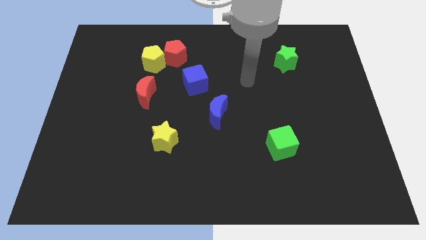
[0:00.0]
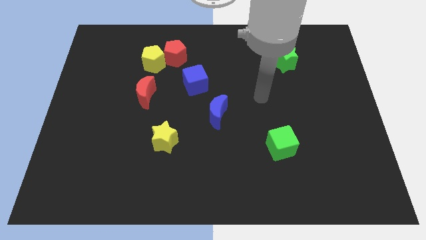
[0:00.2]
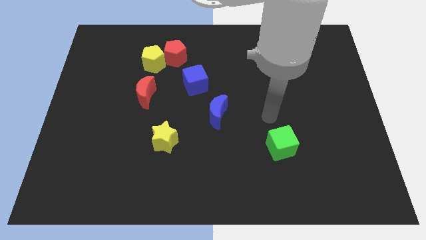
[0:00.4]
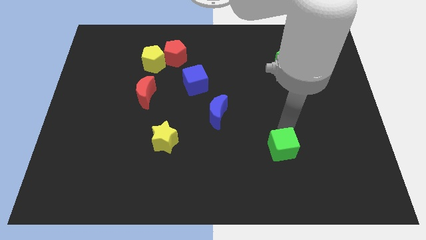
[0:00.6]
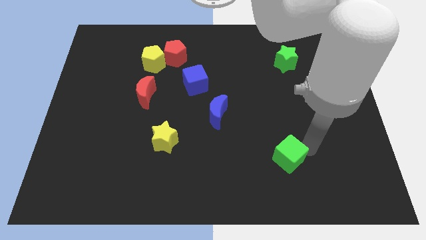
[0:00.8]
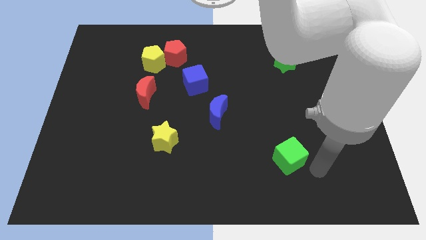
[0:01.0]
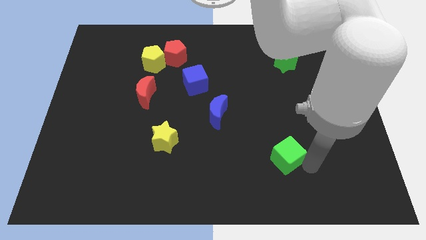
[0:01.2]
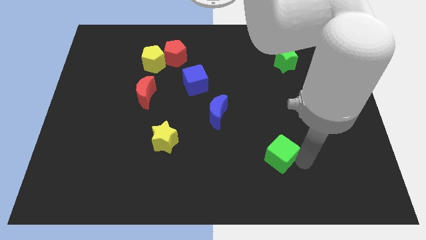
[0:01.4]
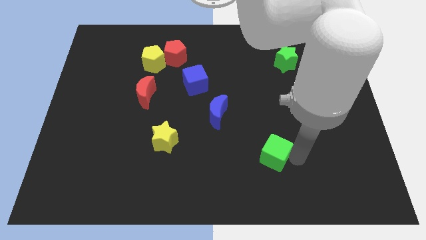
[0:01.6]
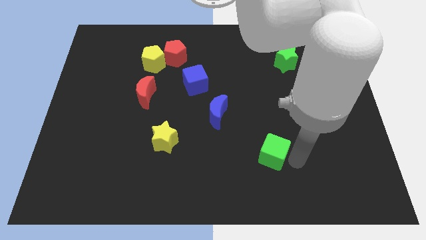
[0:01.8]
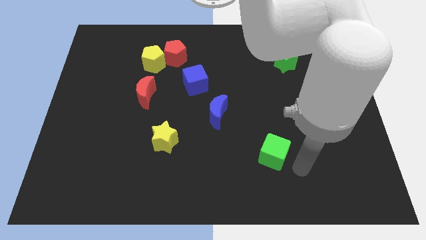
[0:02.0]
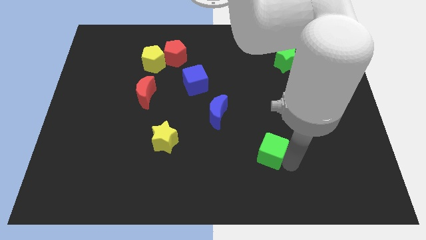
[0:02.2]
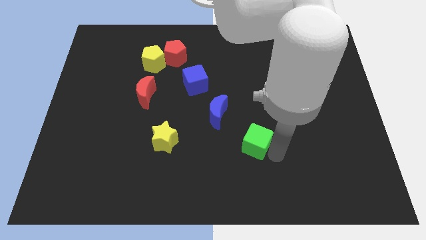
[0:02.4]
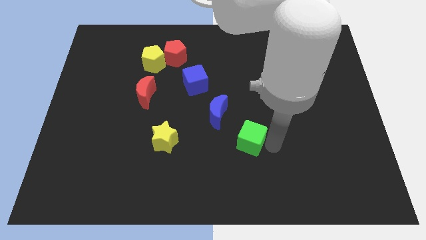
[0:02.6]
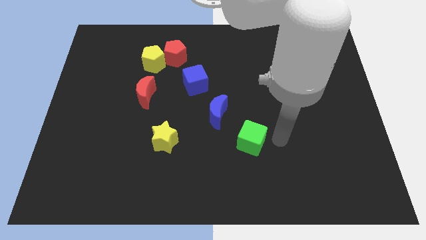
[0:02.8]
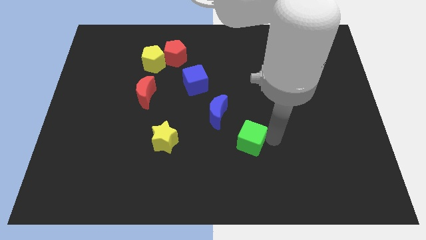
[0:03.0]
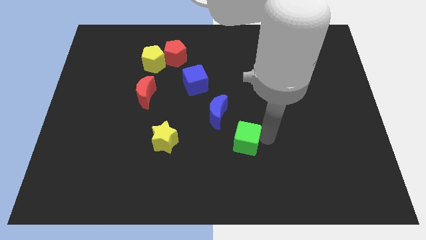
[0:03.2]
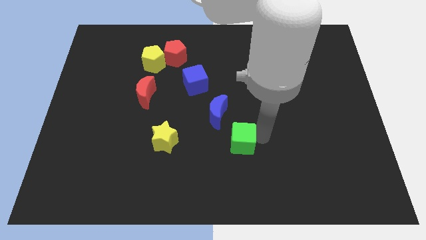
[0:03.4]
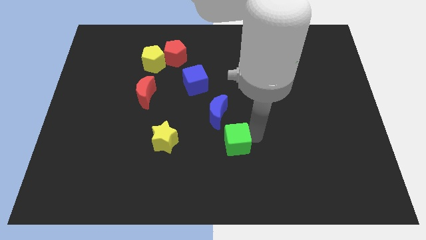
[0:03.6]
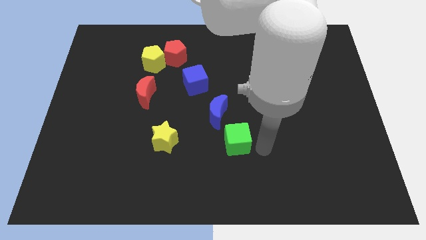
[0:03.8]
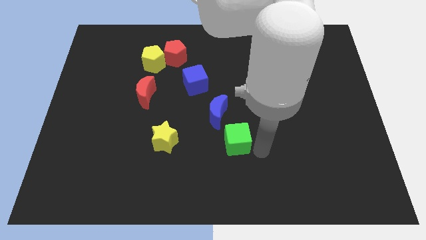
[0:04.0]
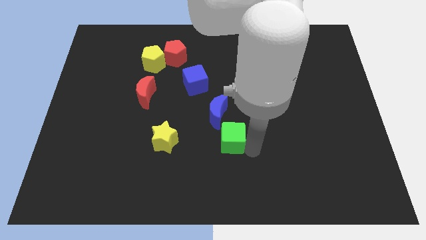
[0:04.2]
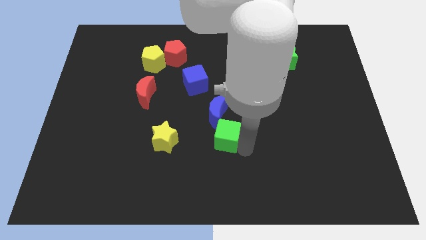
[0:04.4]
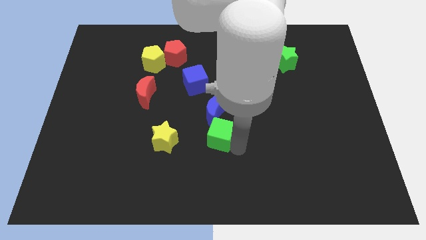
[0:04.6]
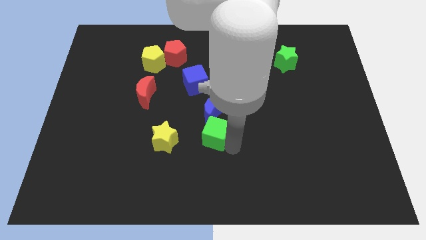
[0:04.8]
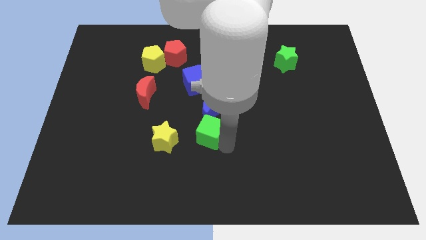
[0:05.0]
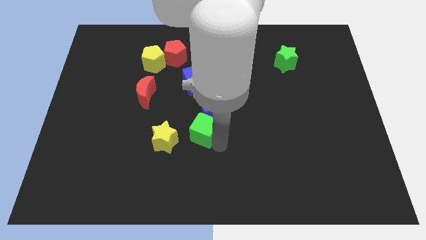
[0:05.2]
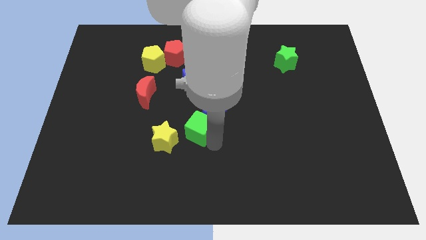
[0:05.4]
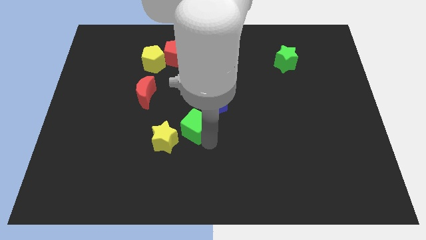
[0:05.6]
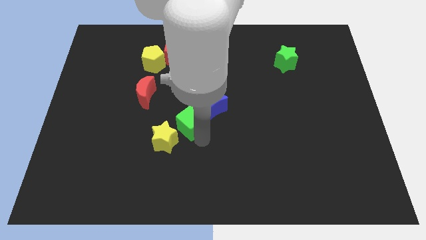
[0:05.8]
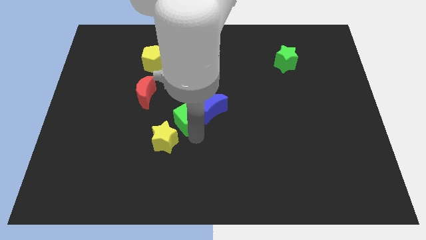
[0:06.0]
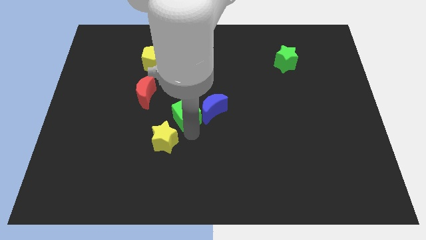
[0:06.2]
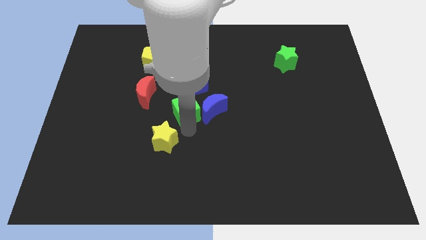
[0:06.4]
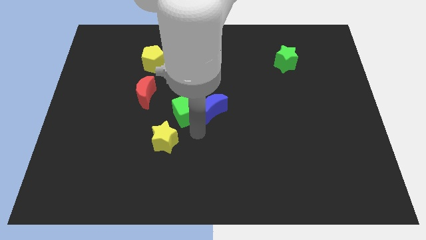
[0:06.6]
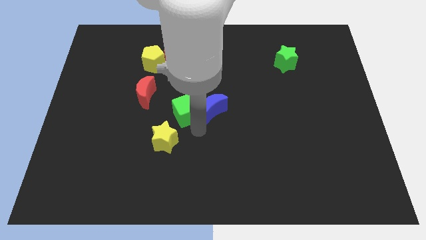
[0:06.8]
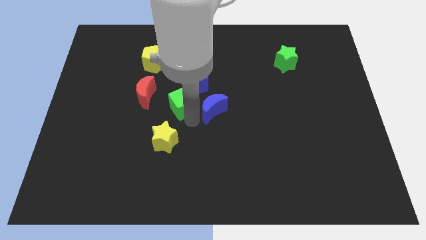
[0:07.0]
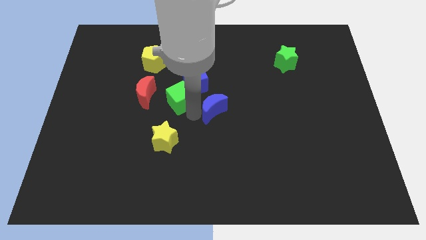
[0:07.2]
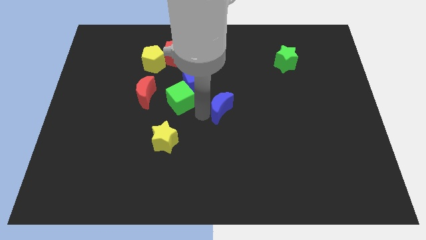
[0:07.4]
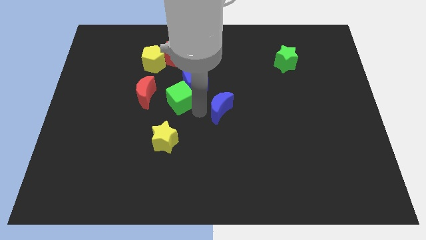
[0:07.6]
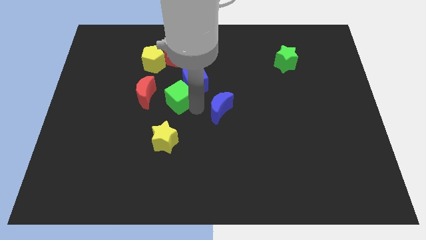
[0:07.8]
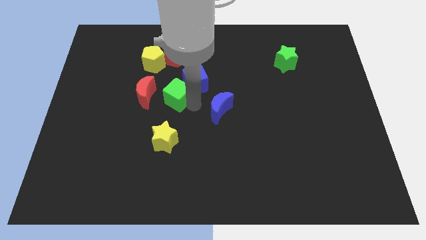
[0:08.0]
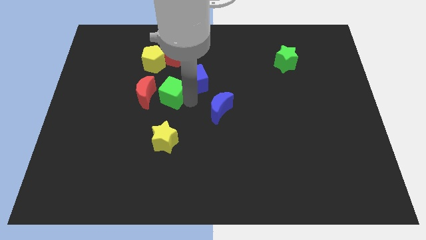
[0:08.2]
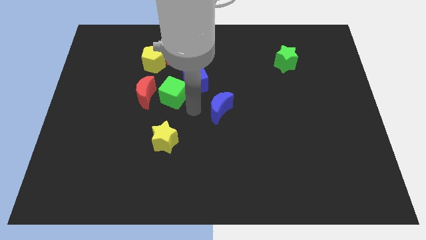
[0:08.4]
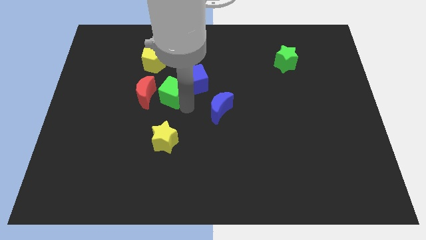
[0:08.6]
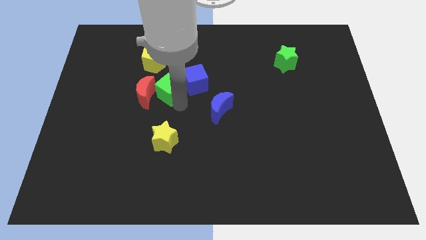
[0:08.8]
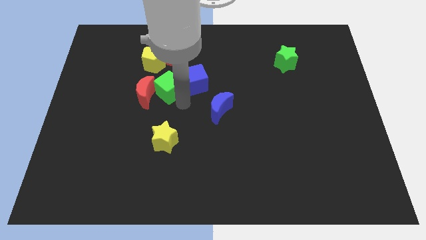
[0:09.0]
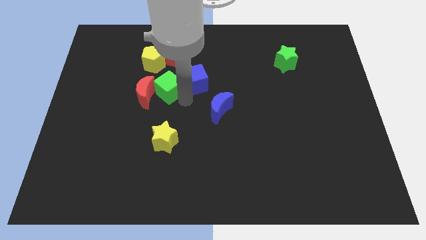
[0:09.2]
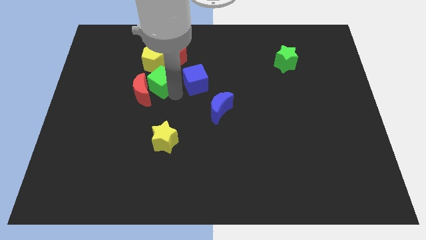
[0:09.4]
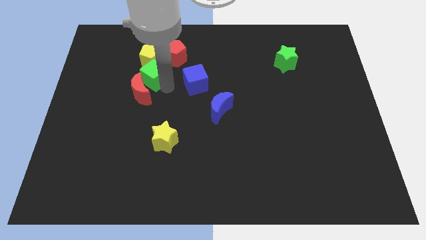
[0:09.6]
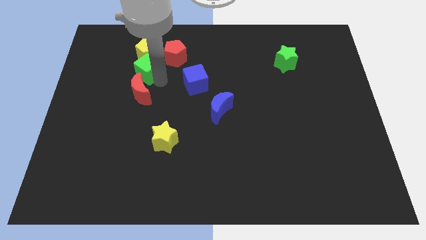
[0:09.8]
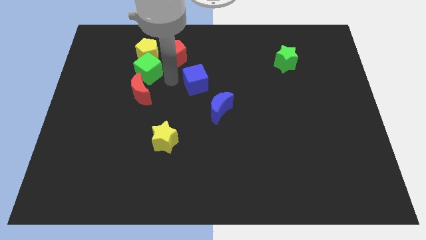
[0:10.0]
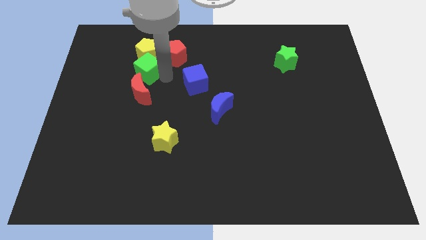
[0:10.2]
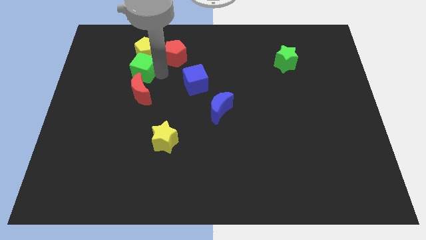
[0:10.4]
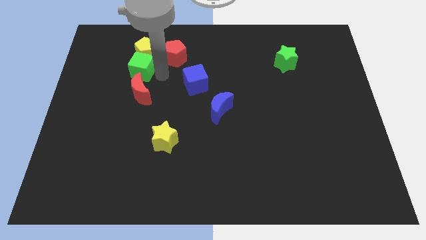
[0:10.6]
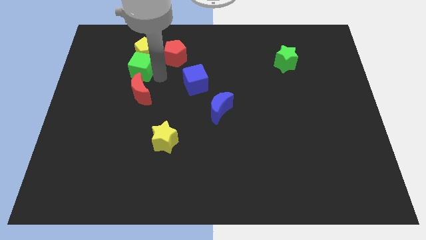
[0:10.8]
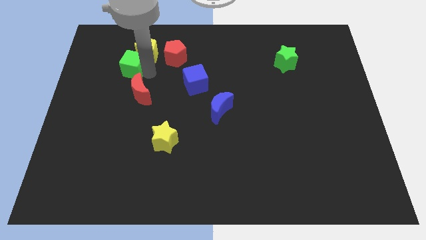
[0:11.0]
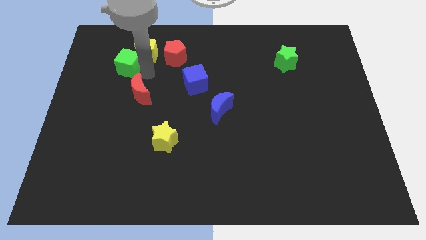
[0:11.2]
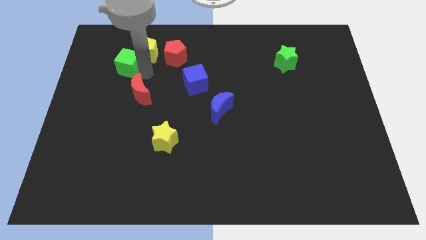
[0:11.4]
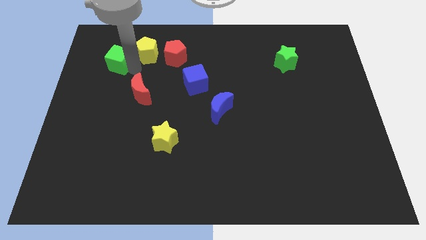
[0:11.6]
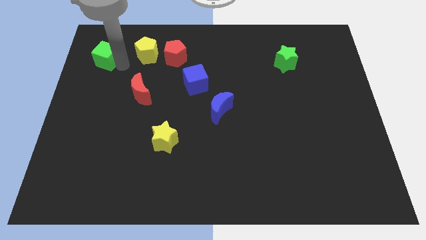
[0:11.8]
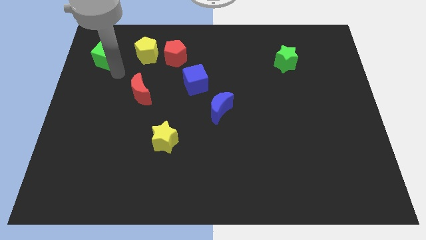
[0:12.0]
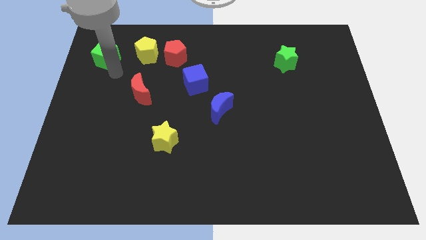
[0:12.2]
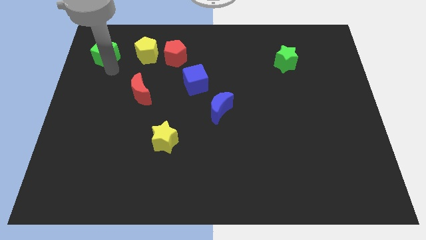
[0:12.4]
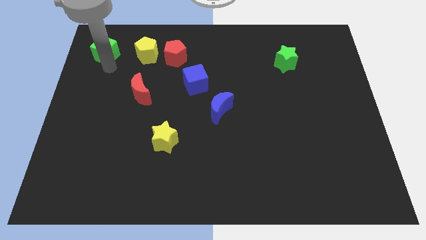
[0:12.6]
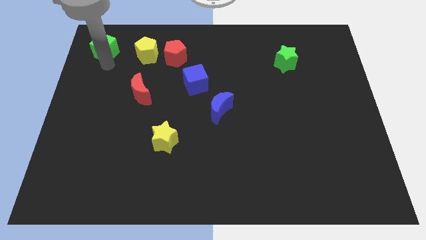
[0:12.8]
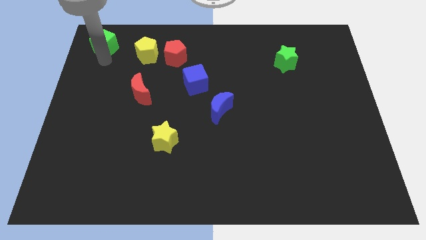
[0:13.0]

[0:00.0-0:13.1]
push the green cube to the top left

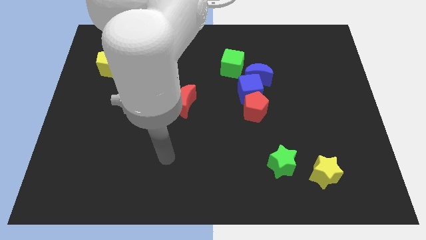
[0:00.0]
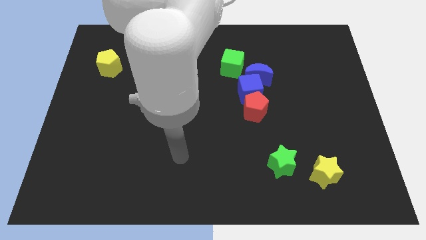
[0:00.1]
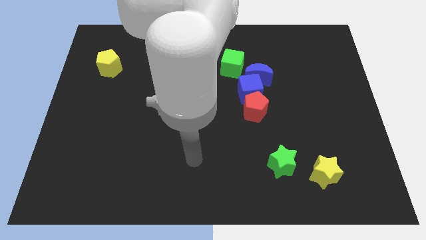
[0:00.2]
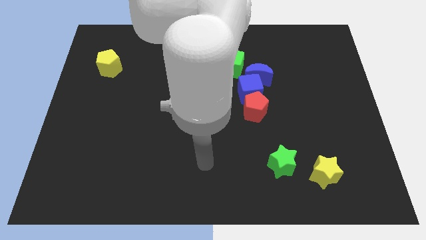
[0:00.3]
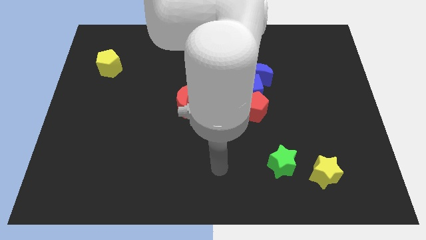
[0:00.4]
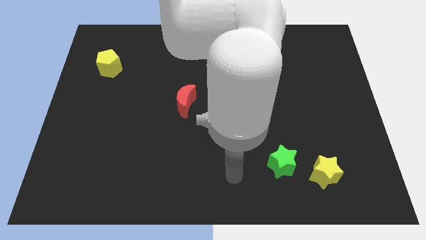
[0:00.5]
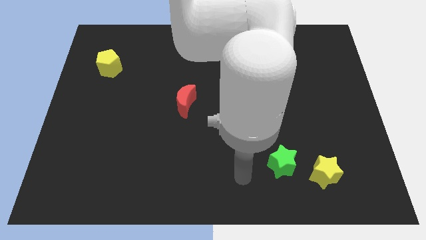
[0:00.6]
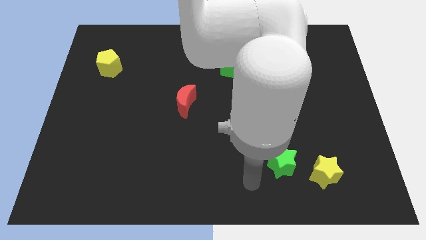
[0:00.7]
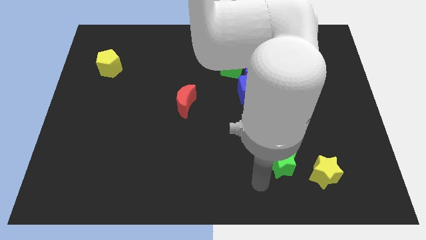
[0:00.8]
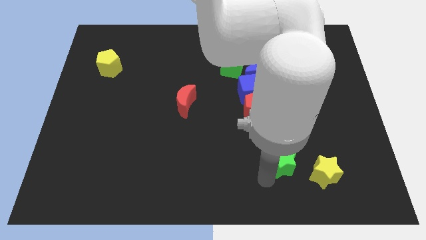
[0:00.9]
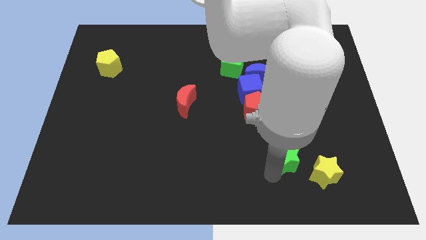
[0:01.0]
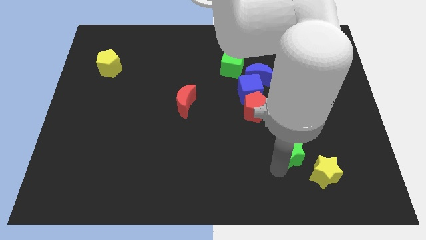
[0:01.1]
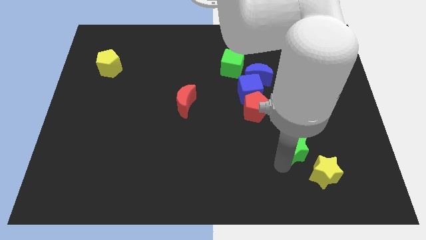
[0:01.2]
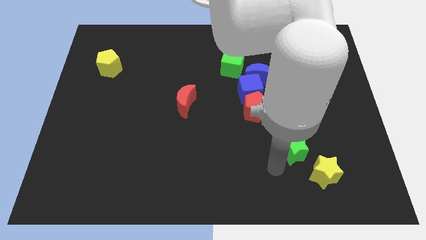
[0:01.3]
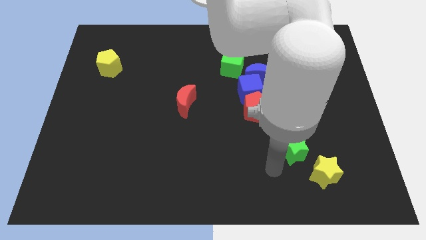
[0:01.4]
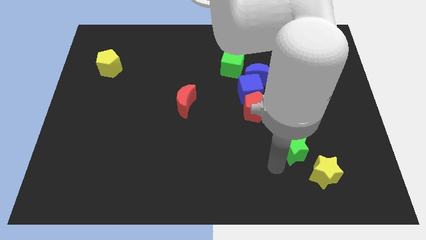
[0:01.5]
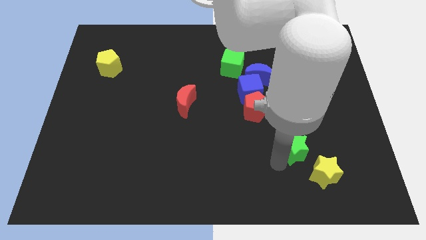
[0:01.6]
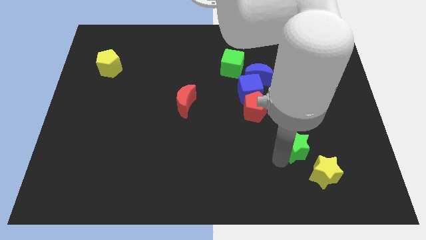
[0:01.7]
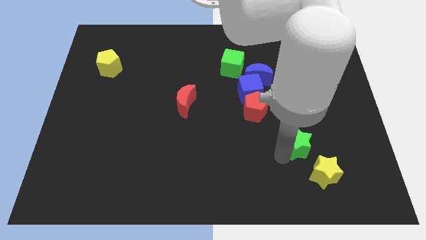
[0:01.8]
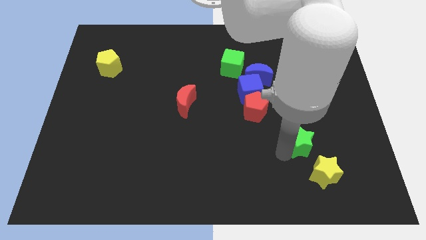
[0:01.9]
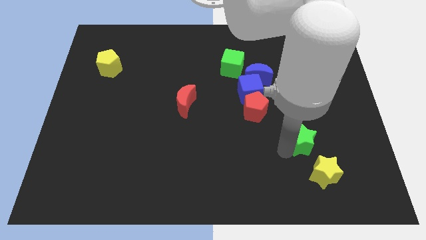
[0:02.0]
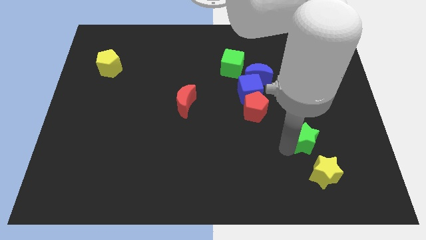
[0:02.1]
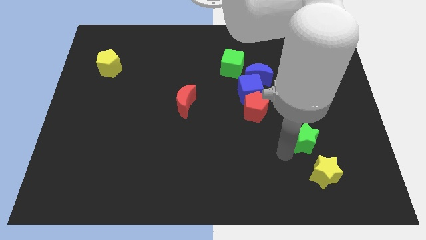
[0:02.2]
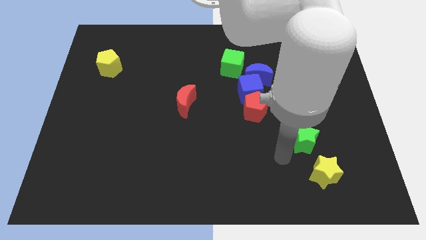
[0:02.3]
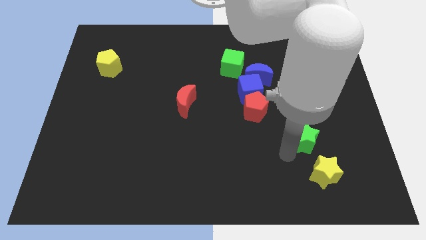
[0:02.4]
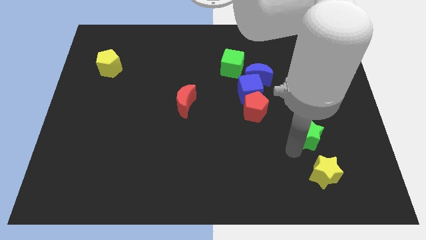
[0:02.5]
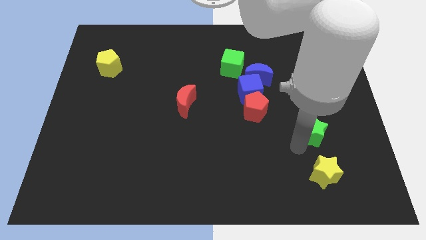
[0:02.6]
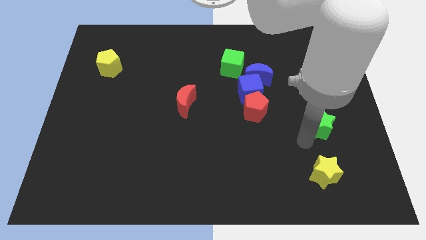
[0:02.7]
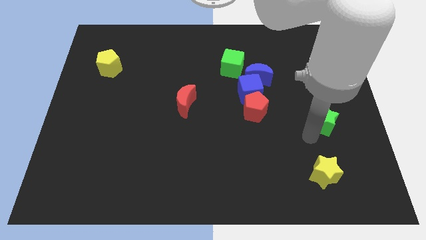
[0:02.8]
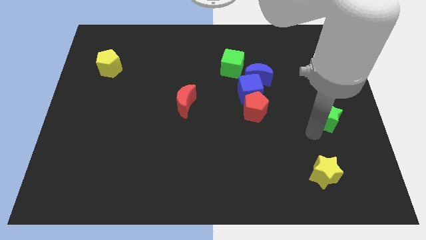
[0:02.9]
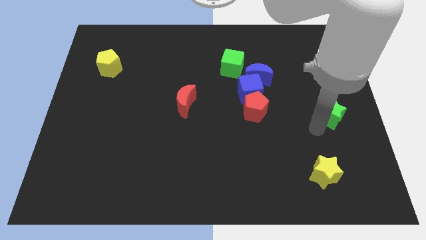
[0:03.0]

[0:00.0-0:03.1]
move the green star to the center right
